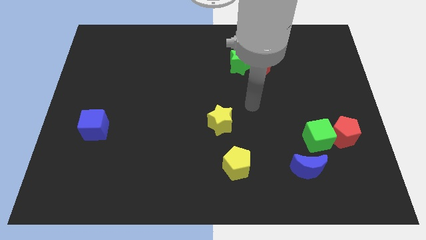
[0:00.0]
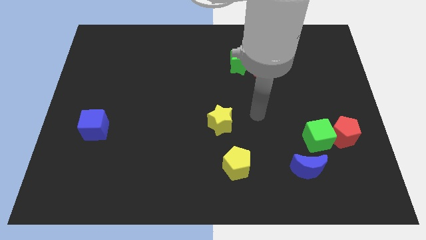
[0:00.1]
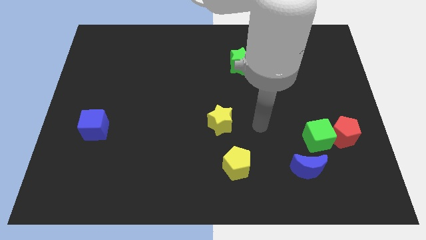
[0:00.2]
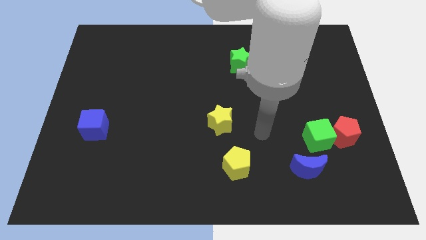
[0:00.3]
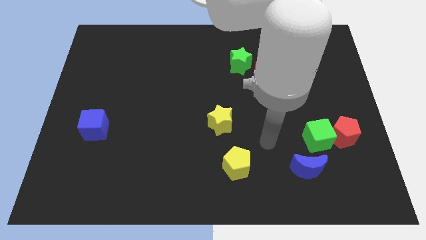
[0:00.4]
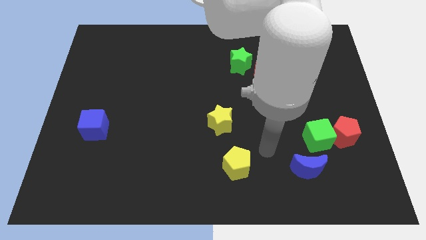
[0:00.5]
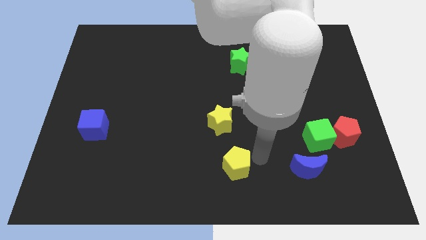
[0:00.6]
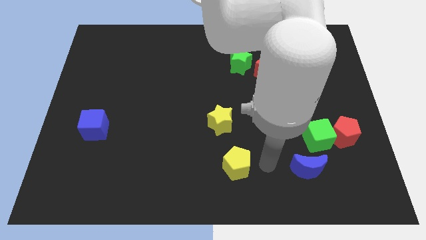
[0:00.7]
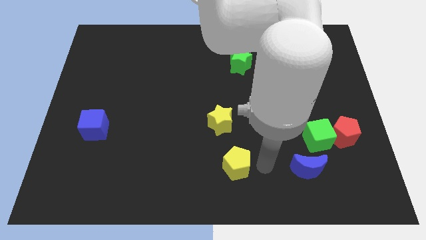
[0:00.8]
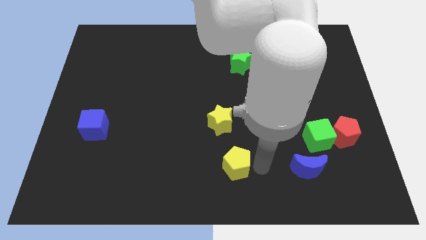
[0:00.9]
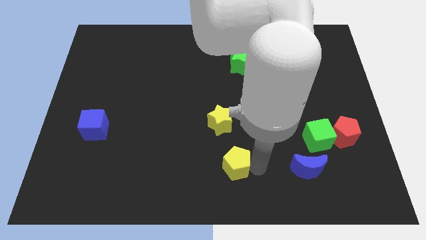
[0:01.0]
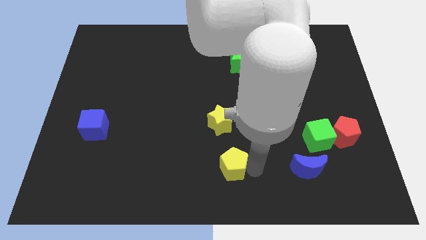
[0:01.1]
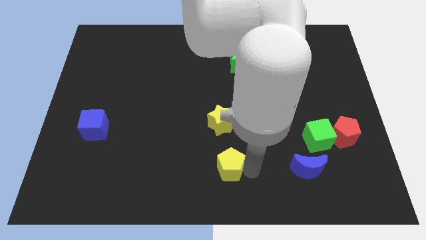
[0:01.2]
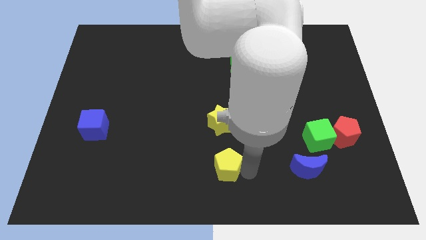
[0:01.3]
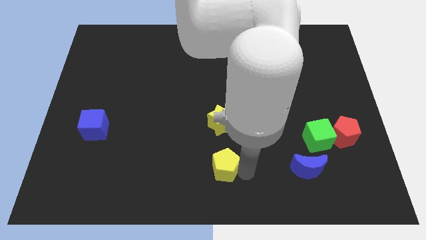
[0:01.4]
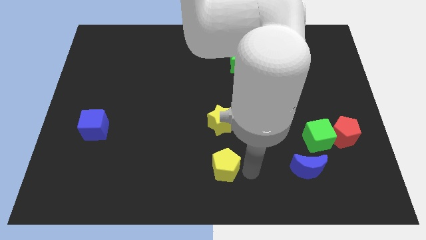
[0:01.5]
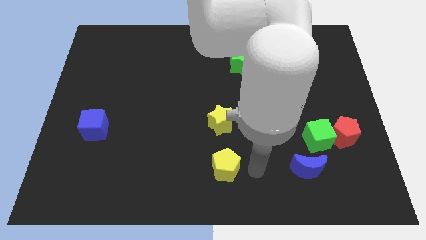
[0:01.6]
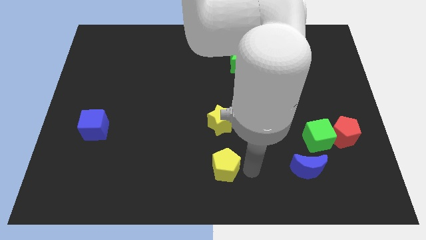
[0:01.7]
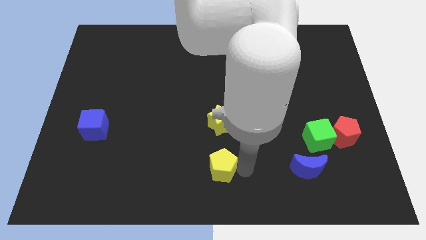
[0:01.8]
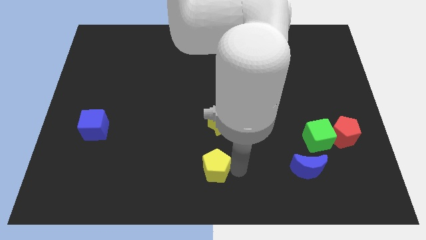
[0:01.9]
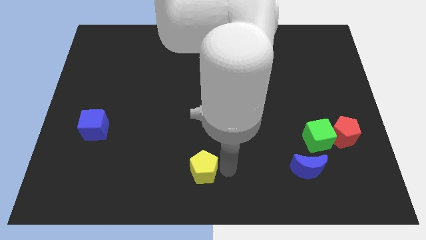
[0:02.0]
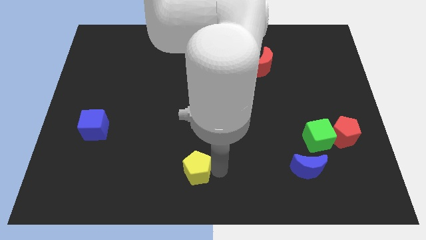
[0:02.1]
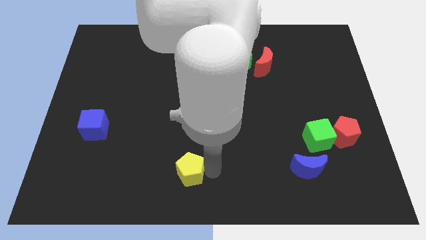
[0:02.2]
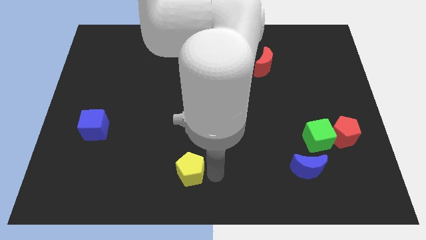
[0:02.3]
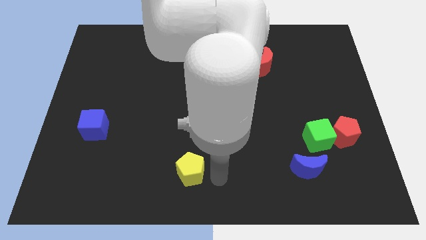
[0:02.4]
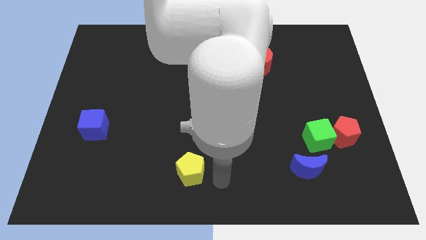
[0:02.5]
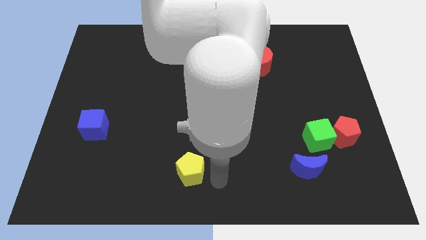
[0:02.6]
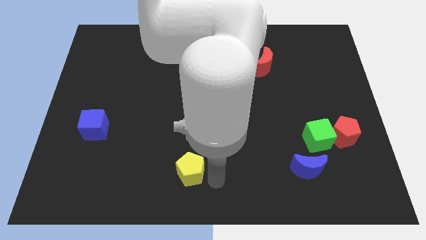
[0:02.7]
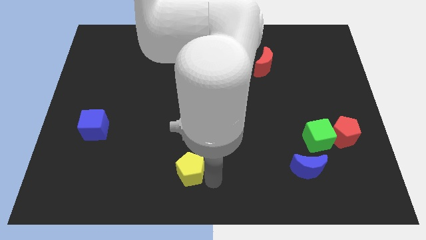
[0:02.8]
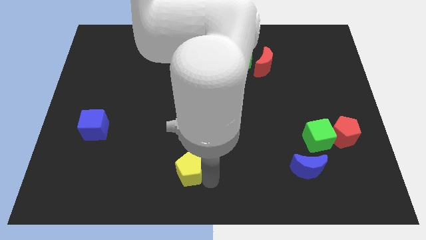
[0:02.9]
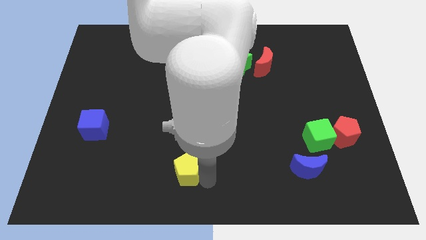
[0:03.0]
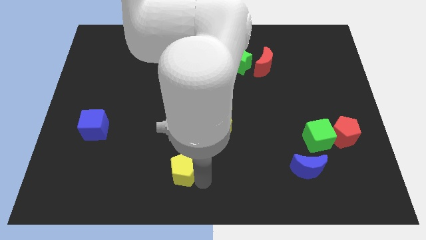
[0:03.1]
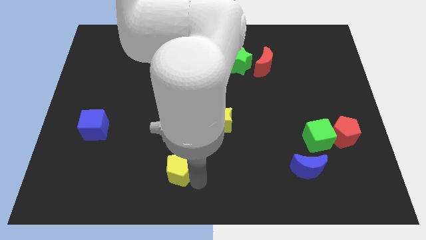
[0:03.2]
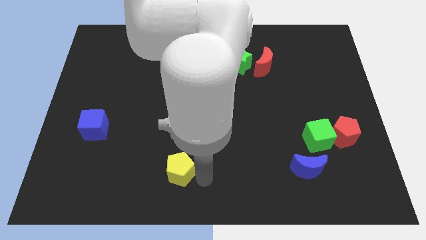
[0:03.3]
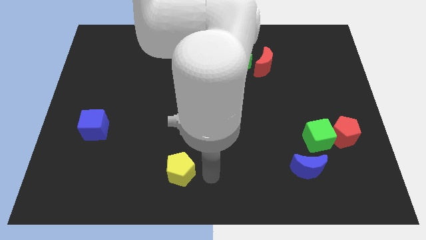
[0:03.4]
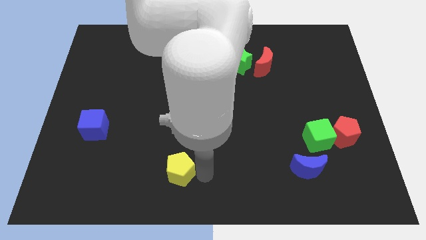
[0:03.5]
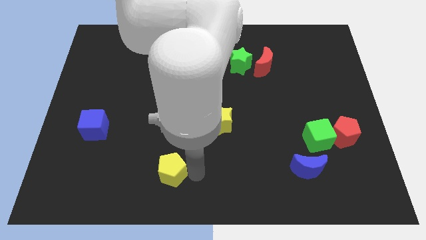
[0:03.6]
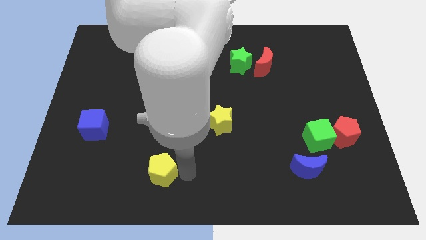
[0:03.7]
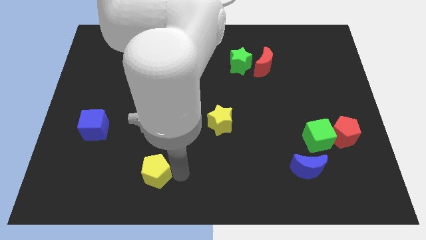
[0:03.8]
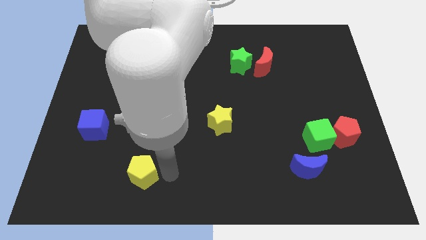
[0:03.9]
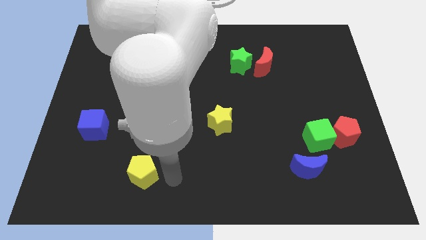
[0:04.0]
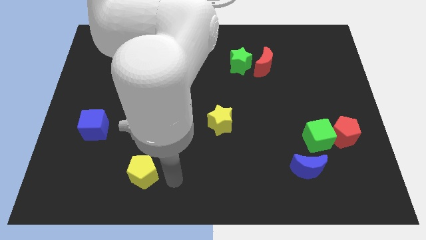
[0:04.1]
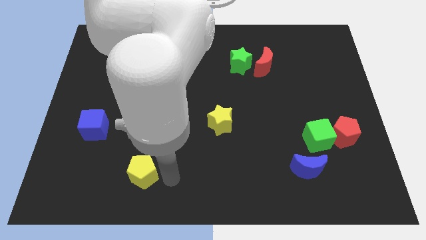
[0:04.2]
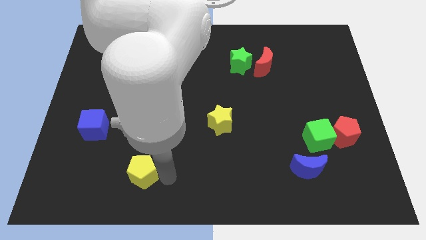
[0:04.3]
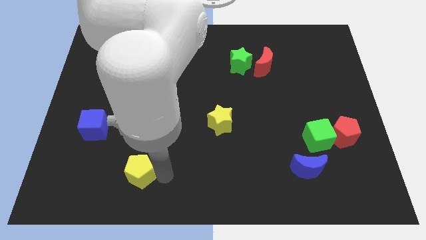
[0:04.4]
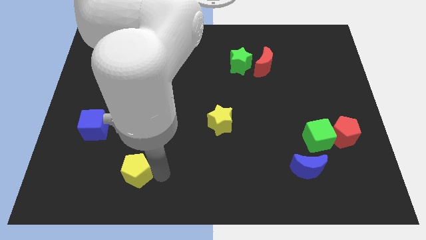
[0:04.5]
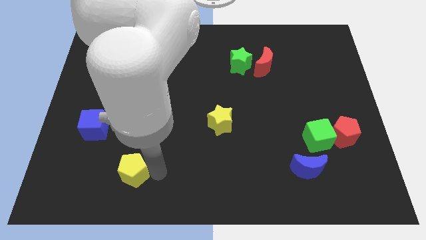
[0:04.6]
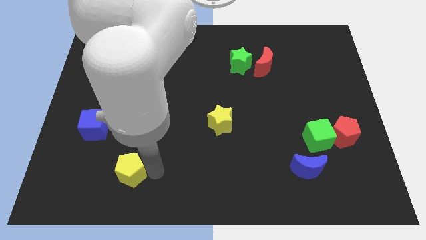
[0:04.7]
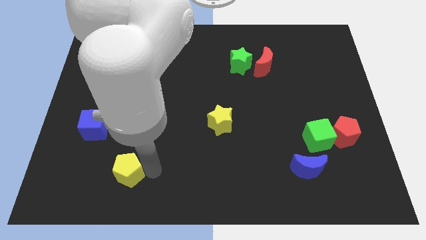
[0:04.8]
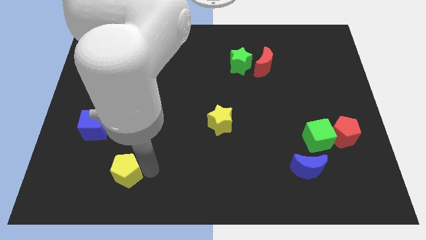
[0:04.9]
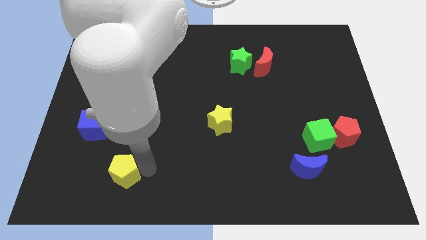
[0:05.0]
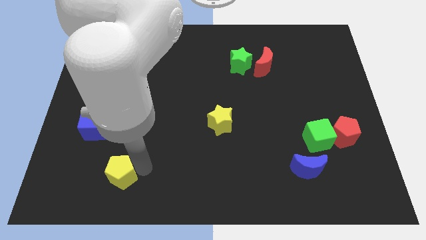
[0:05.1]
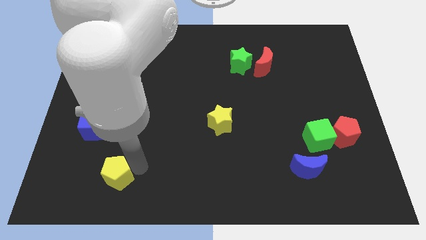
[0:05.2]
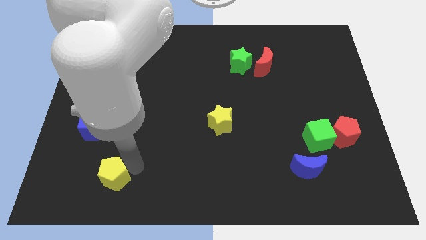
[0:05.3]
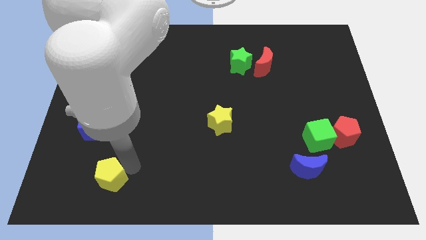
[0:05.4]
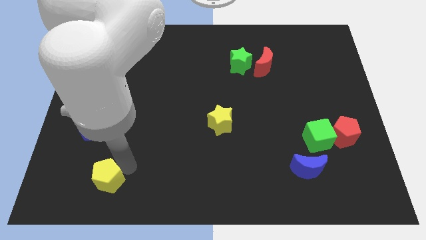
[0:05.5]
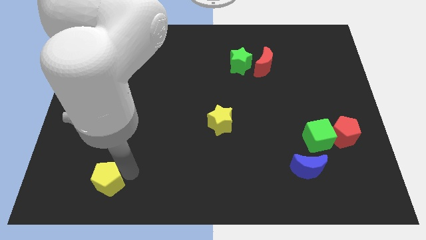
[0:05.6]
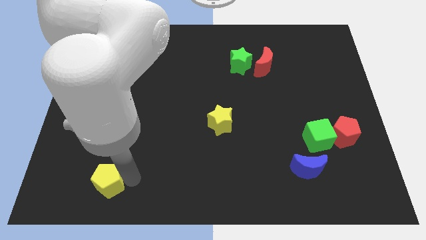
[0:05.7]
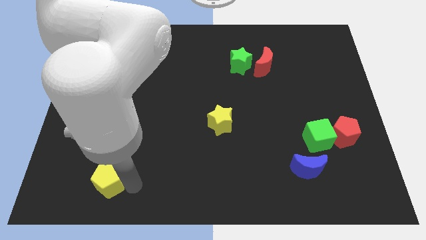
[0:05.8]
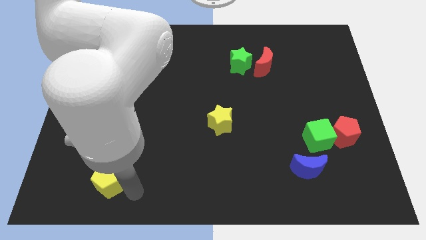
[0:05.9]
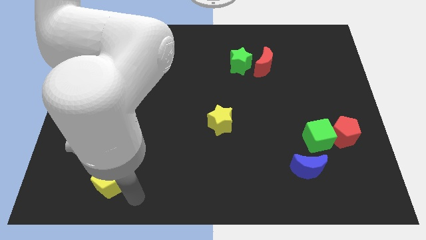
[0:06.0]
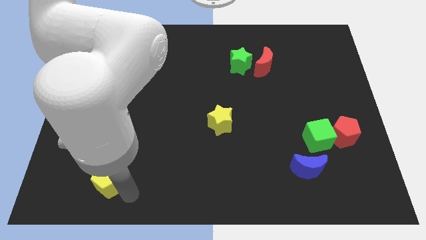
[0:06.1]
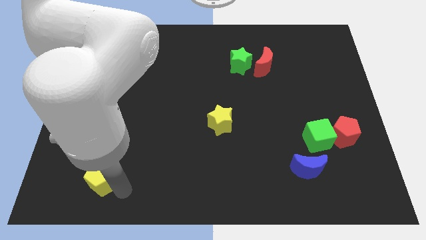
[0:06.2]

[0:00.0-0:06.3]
slide the yellow pentagon to the bottom side of the blue cube

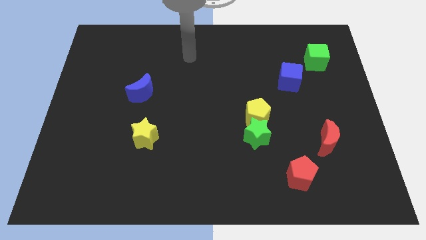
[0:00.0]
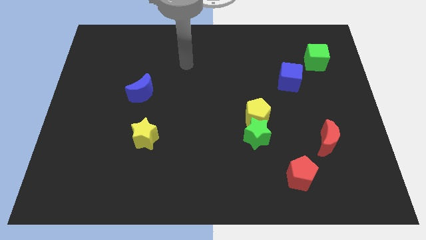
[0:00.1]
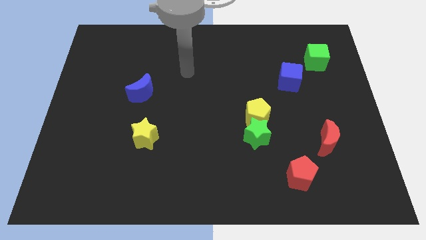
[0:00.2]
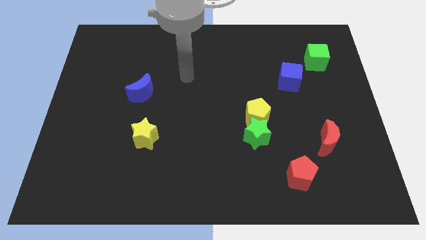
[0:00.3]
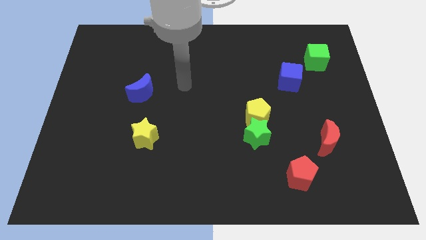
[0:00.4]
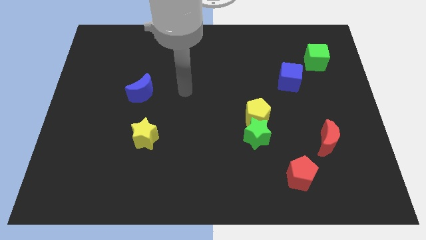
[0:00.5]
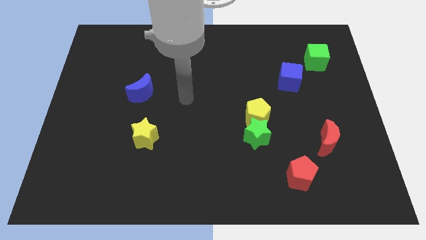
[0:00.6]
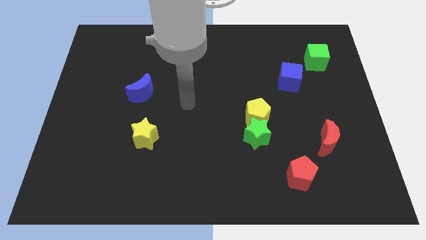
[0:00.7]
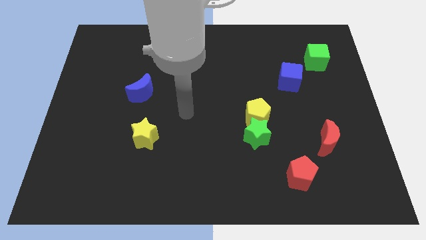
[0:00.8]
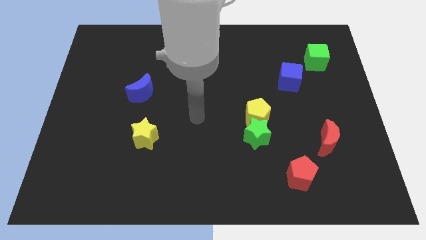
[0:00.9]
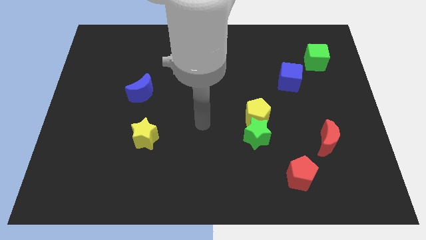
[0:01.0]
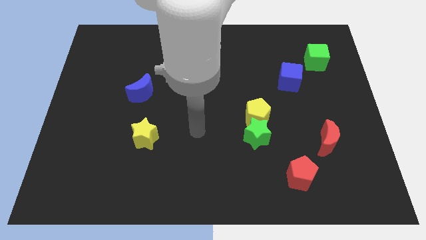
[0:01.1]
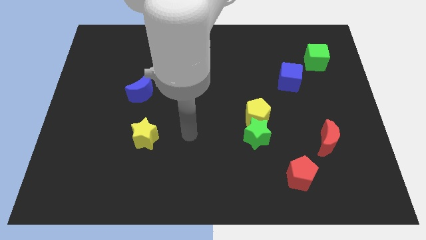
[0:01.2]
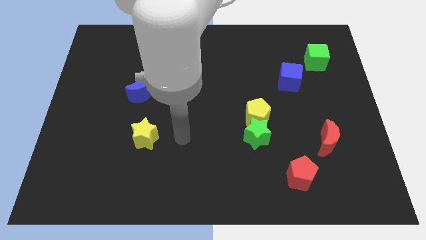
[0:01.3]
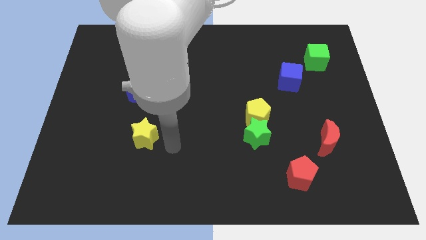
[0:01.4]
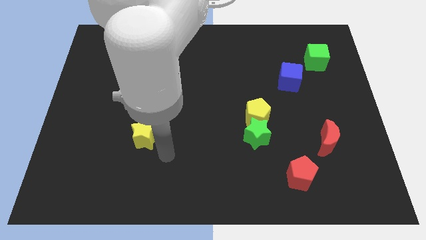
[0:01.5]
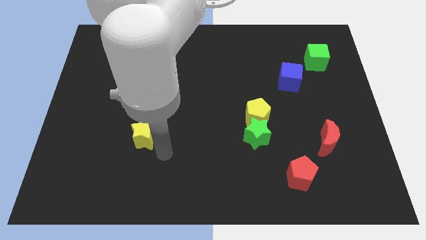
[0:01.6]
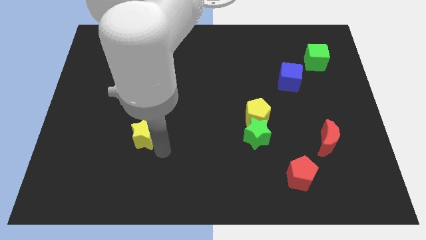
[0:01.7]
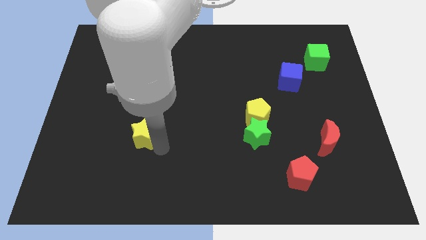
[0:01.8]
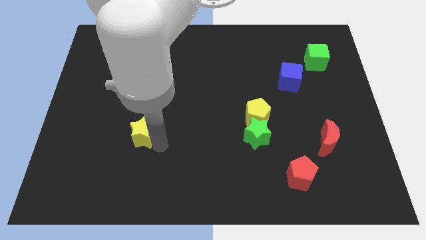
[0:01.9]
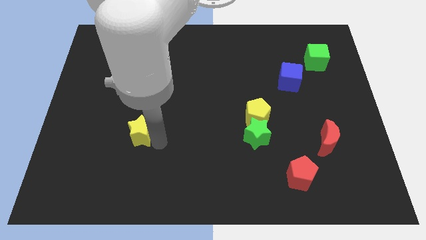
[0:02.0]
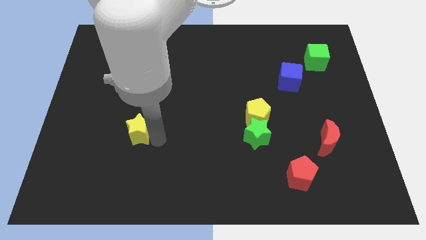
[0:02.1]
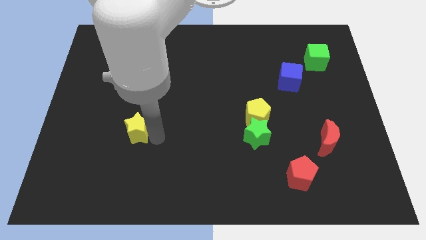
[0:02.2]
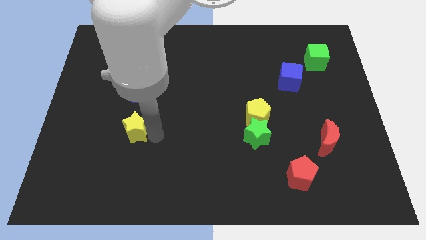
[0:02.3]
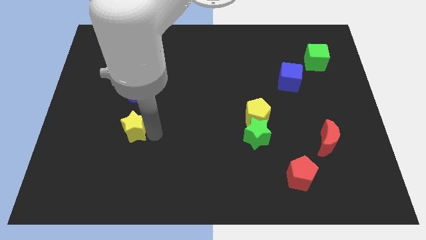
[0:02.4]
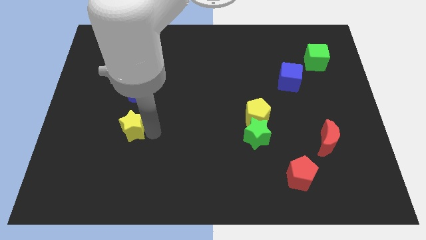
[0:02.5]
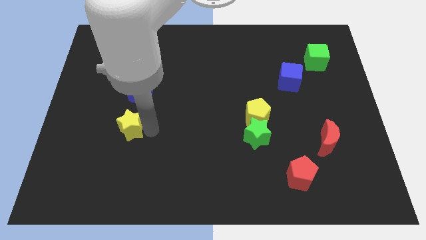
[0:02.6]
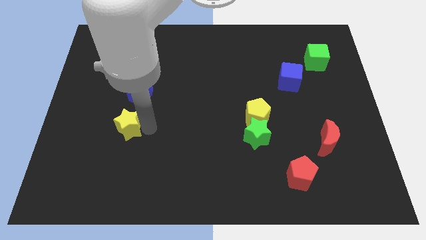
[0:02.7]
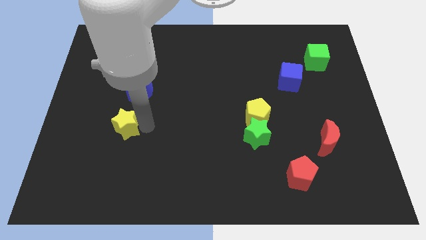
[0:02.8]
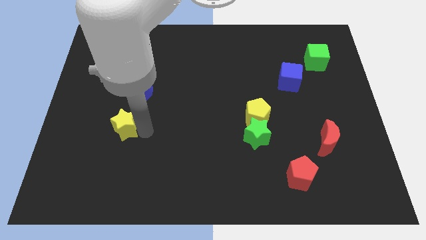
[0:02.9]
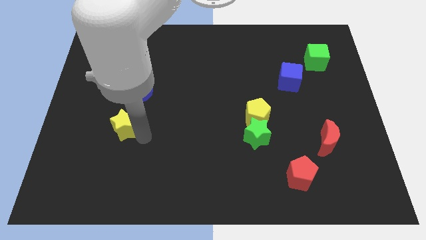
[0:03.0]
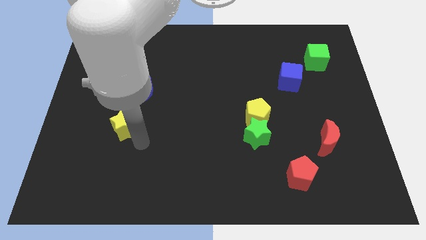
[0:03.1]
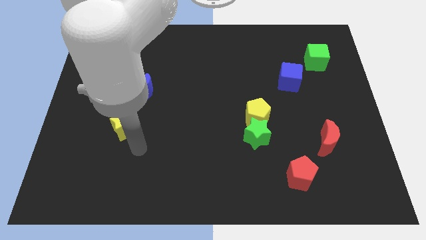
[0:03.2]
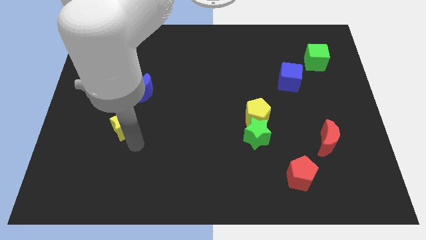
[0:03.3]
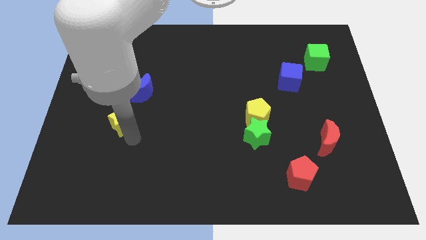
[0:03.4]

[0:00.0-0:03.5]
put the yellow star to the bottom left side of the blue moon
